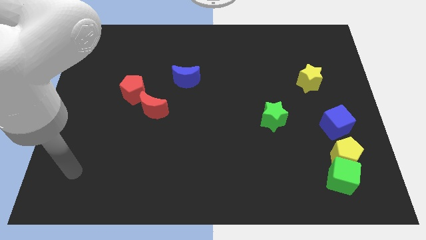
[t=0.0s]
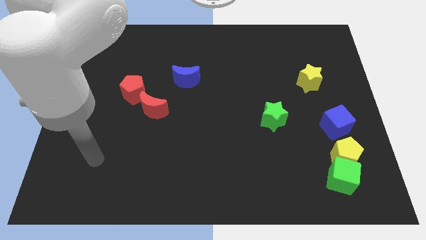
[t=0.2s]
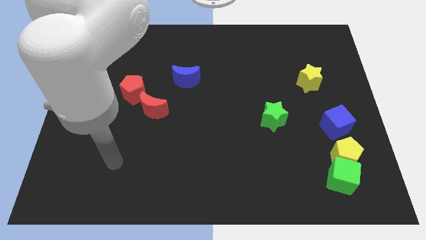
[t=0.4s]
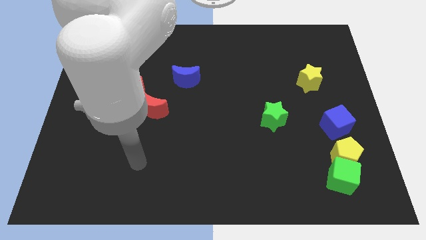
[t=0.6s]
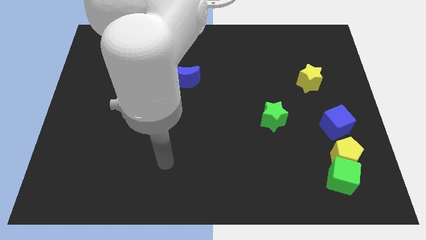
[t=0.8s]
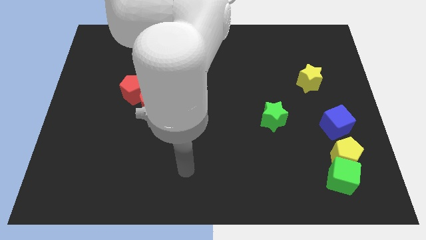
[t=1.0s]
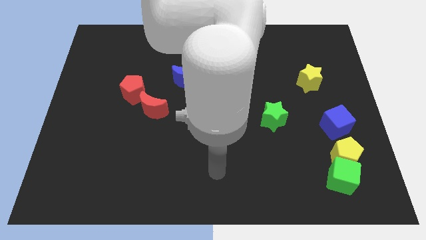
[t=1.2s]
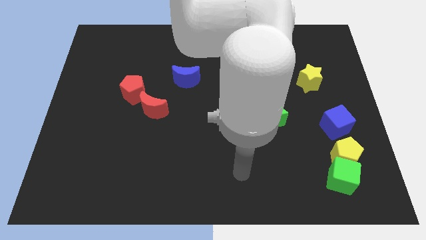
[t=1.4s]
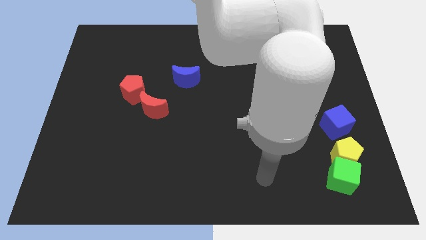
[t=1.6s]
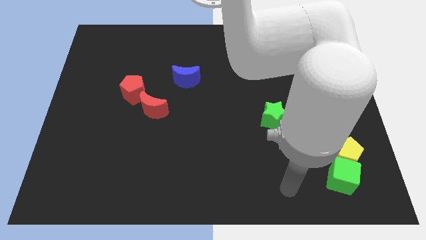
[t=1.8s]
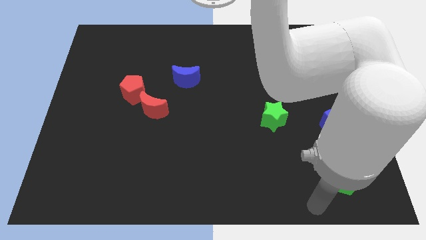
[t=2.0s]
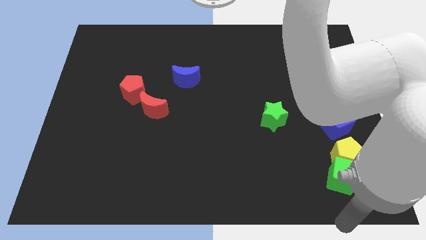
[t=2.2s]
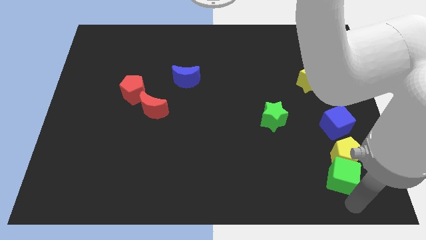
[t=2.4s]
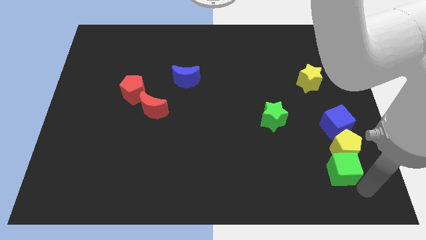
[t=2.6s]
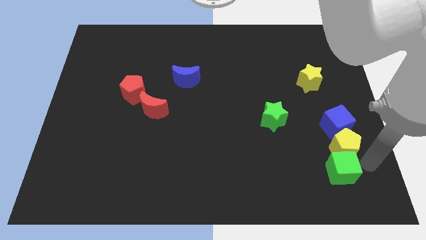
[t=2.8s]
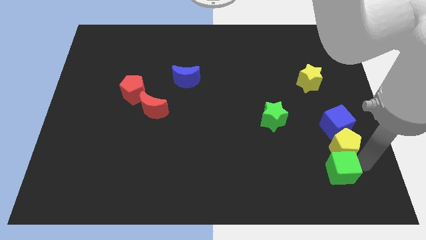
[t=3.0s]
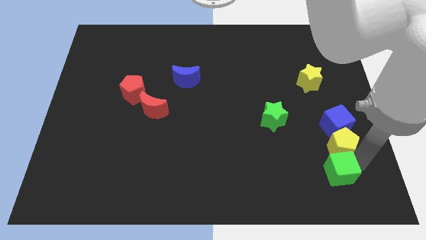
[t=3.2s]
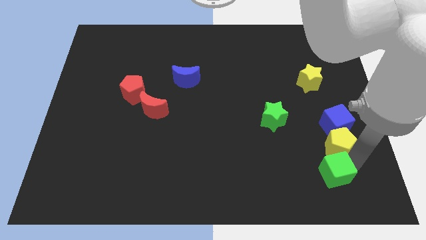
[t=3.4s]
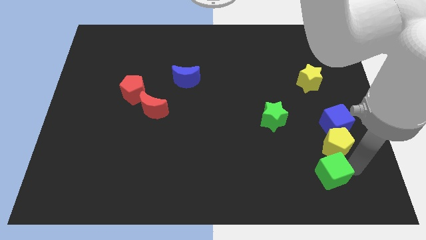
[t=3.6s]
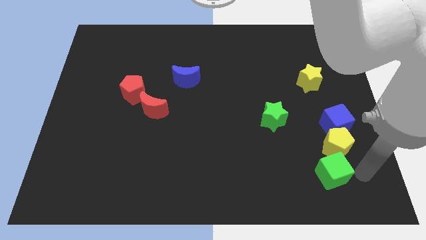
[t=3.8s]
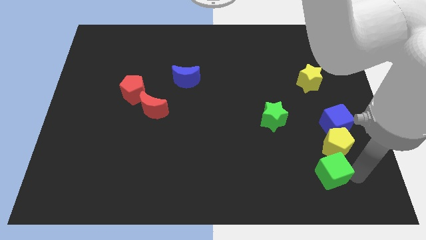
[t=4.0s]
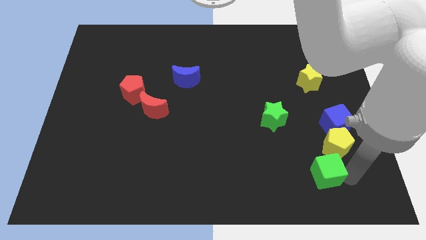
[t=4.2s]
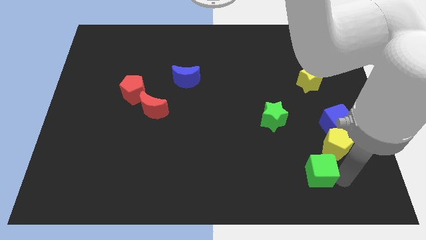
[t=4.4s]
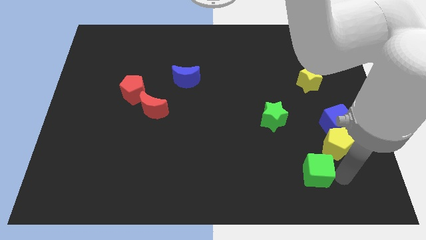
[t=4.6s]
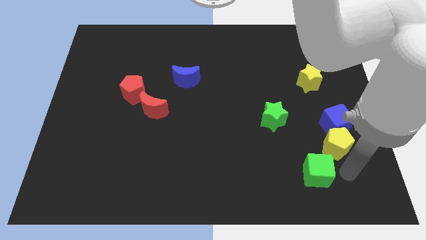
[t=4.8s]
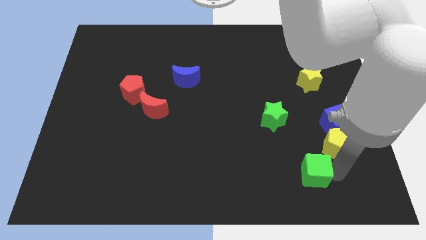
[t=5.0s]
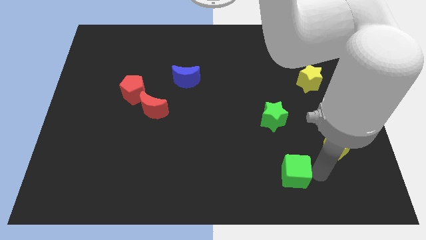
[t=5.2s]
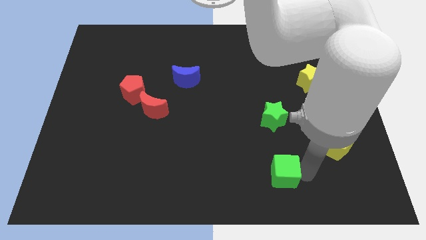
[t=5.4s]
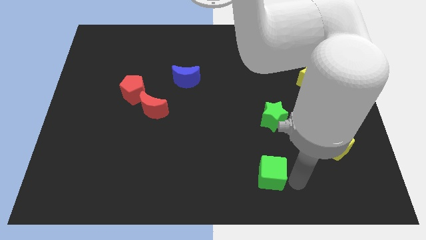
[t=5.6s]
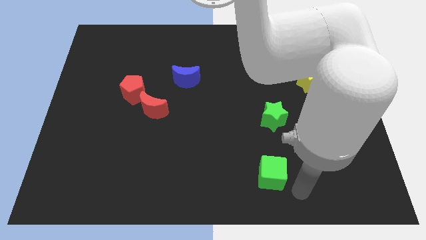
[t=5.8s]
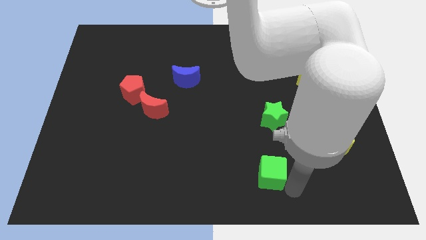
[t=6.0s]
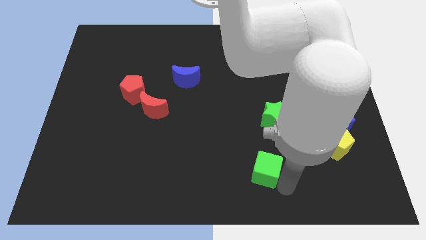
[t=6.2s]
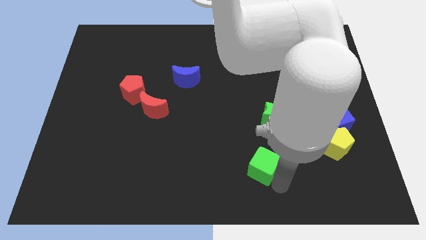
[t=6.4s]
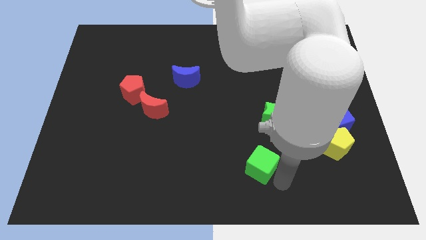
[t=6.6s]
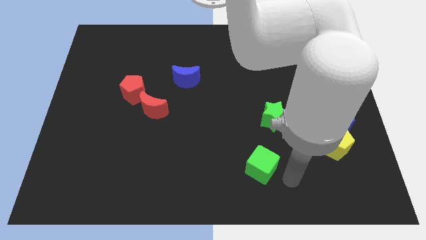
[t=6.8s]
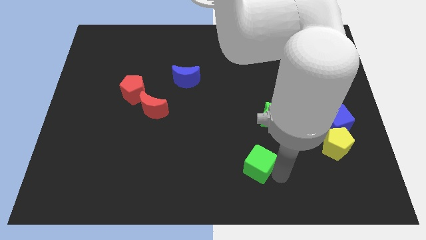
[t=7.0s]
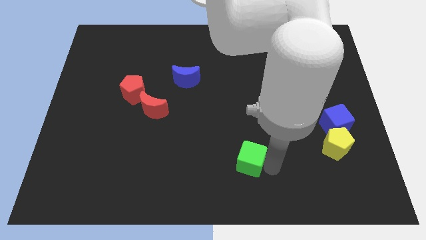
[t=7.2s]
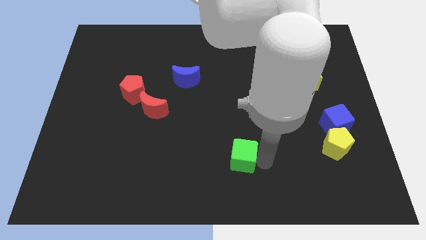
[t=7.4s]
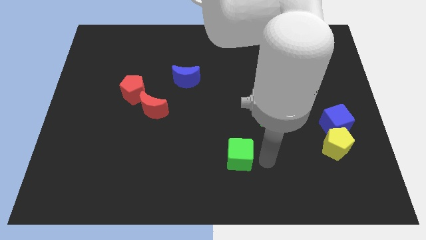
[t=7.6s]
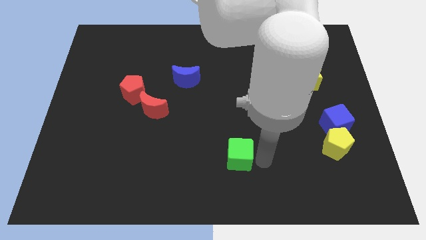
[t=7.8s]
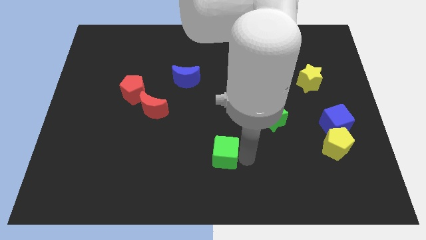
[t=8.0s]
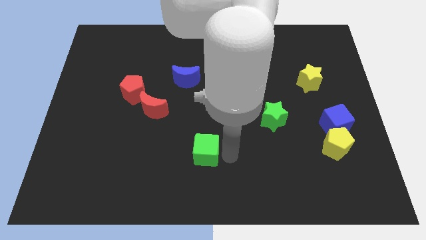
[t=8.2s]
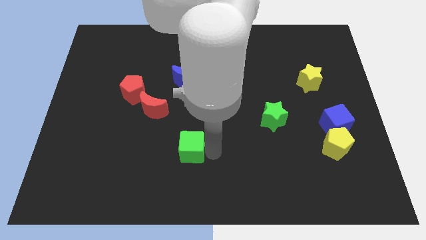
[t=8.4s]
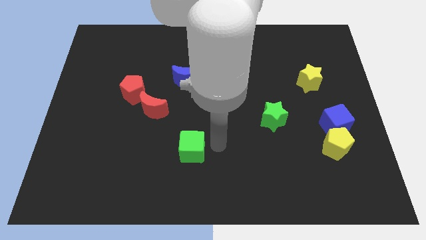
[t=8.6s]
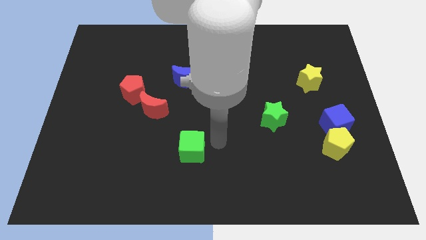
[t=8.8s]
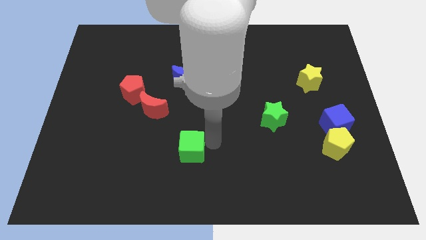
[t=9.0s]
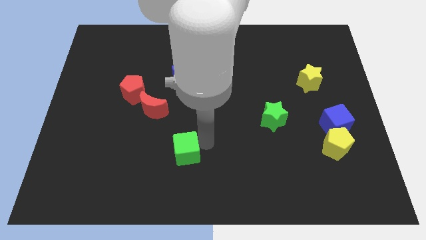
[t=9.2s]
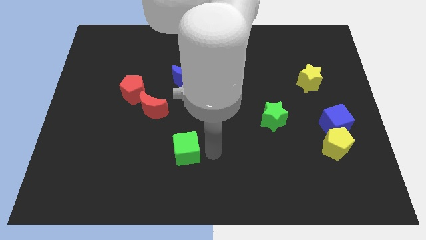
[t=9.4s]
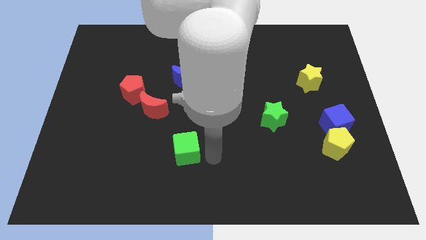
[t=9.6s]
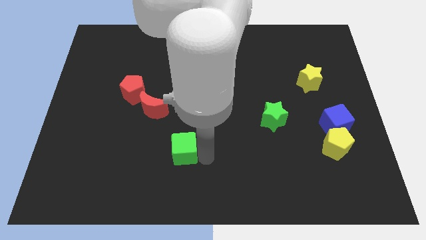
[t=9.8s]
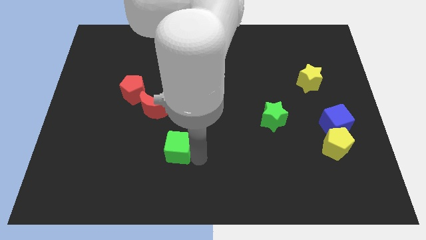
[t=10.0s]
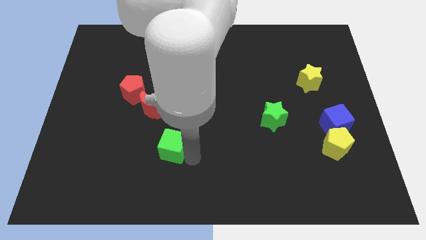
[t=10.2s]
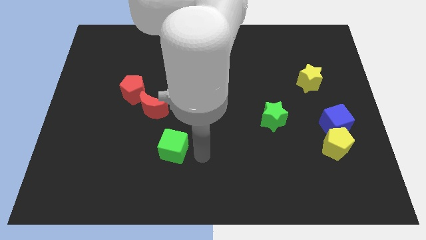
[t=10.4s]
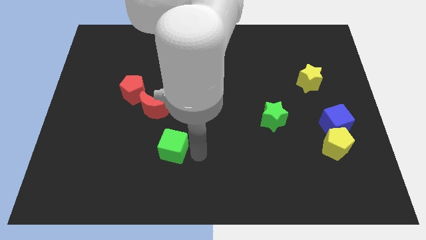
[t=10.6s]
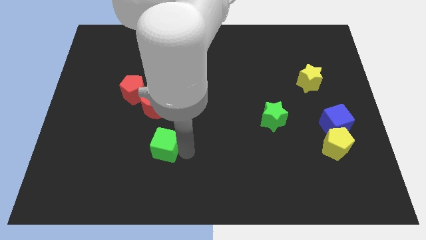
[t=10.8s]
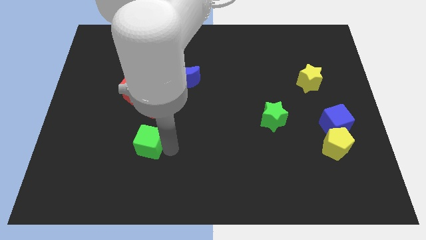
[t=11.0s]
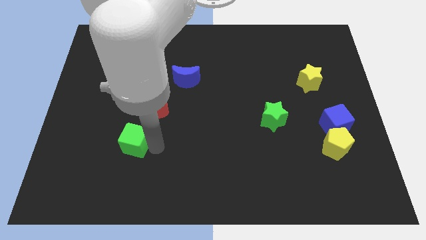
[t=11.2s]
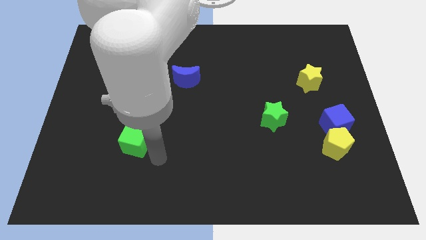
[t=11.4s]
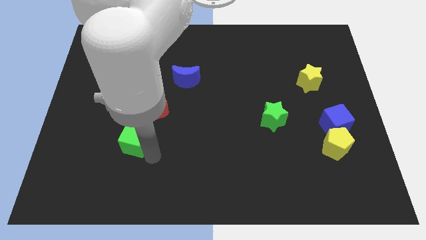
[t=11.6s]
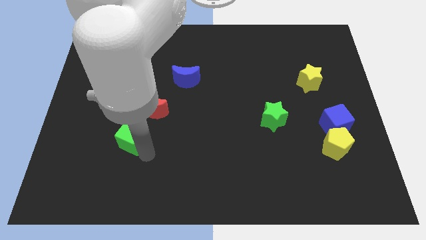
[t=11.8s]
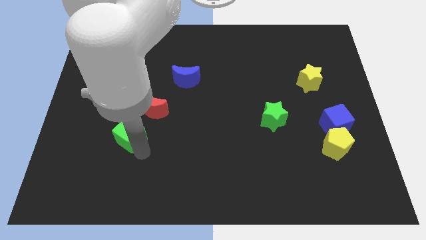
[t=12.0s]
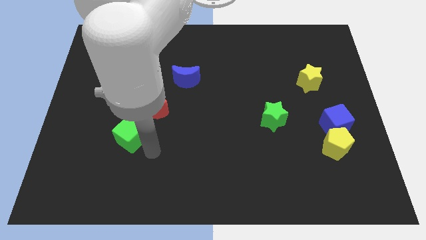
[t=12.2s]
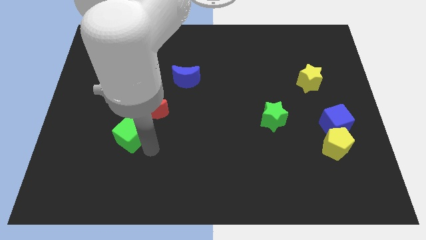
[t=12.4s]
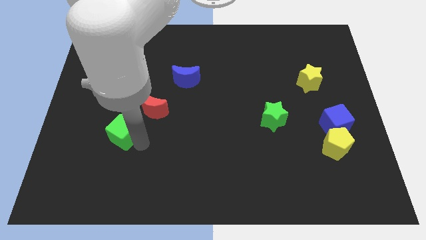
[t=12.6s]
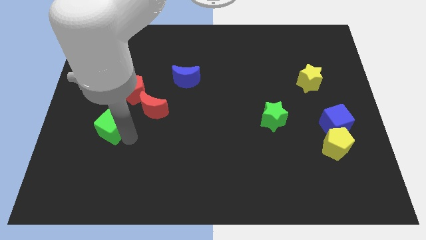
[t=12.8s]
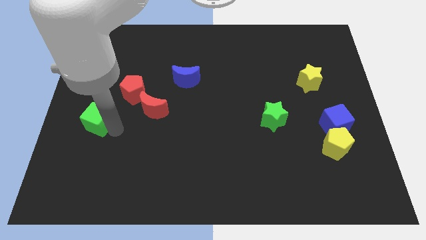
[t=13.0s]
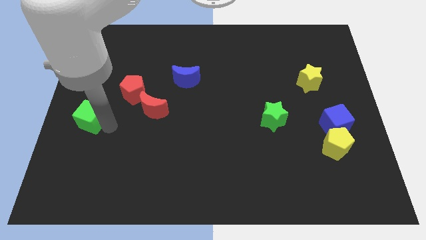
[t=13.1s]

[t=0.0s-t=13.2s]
move the green cube to the left side of the board
